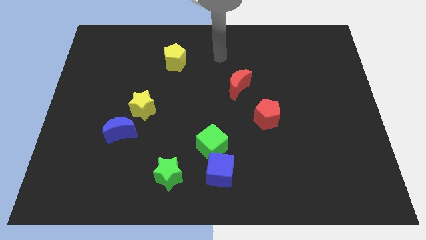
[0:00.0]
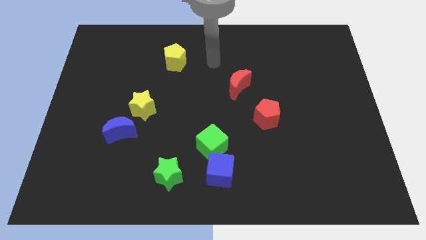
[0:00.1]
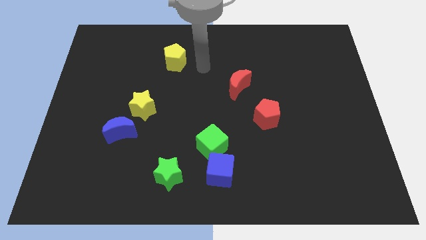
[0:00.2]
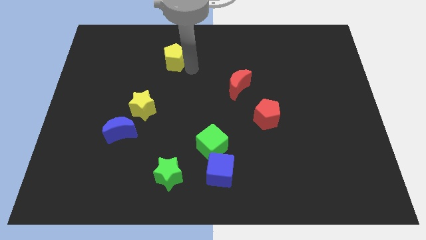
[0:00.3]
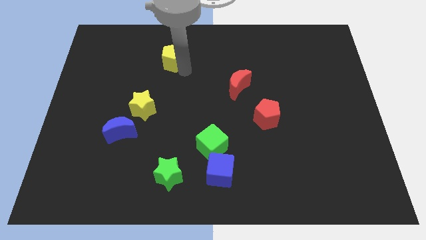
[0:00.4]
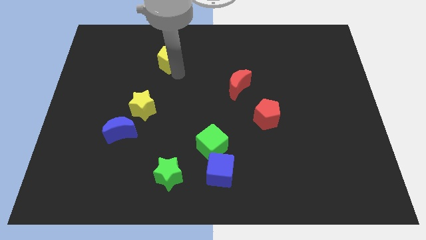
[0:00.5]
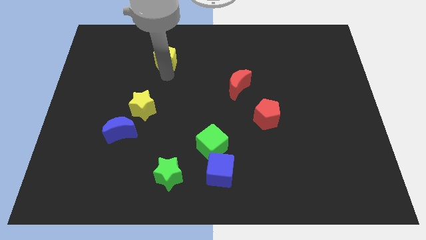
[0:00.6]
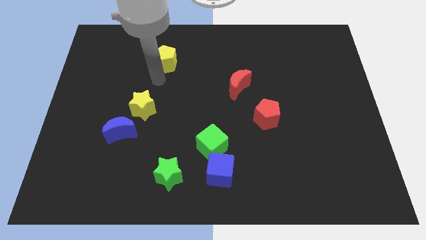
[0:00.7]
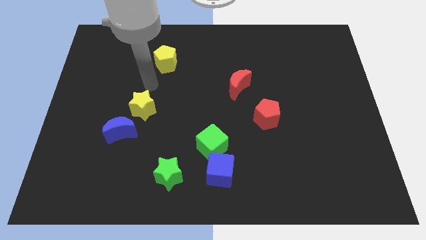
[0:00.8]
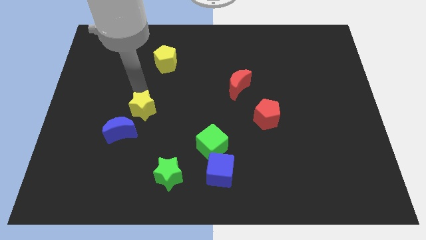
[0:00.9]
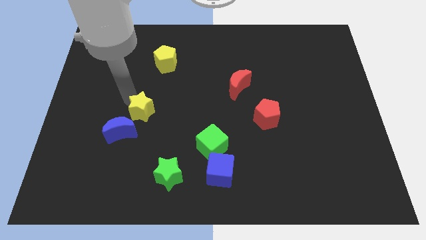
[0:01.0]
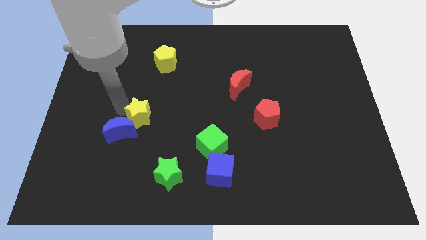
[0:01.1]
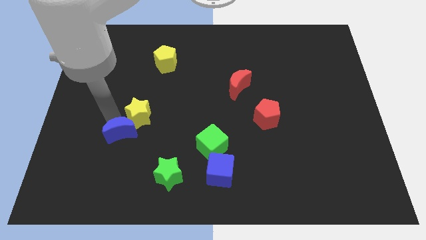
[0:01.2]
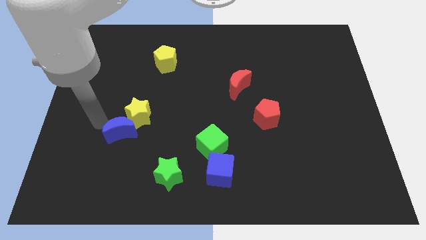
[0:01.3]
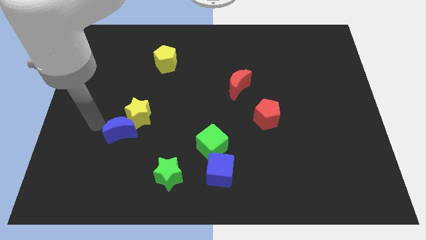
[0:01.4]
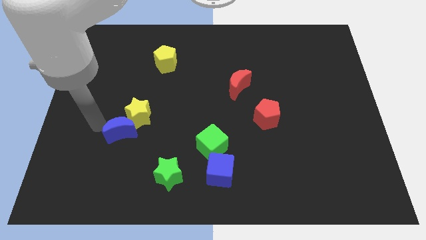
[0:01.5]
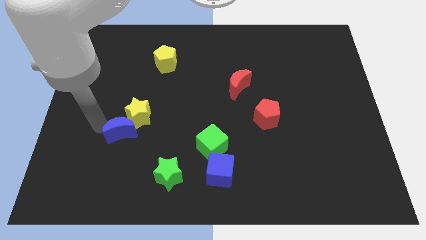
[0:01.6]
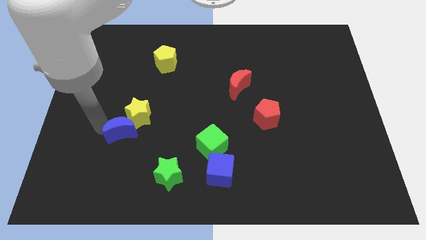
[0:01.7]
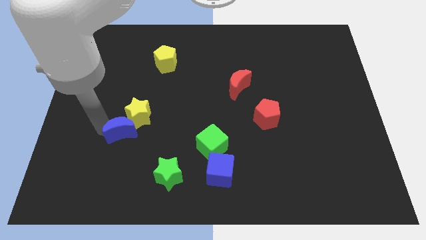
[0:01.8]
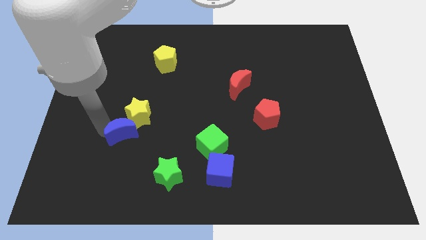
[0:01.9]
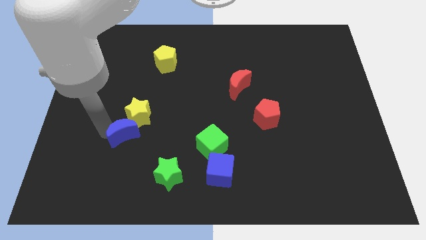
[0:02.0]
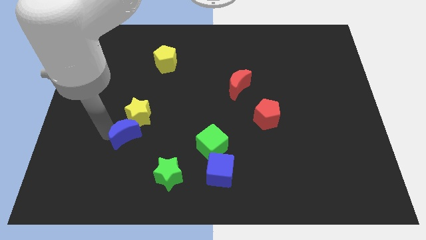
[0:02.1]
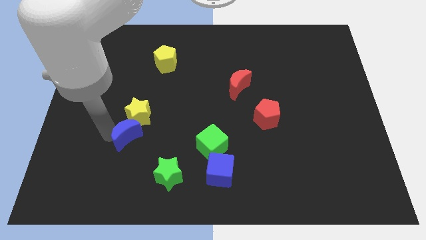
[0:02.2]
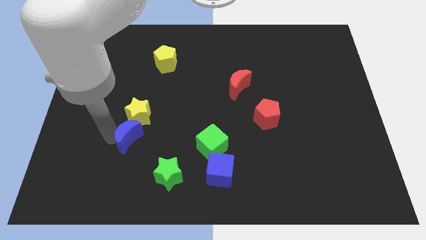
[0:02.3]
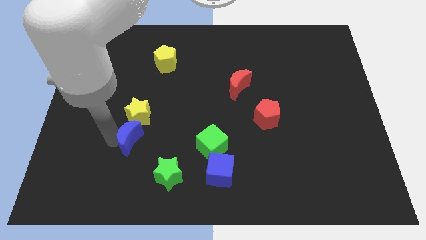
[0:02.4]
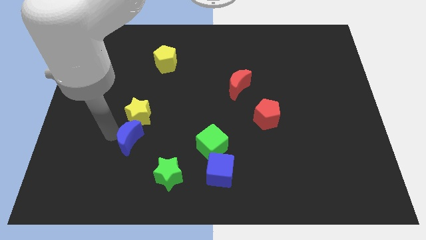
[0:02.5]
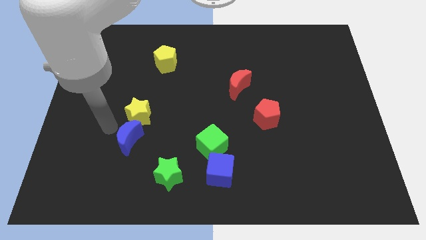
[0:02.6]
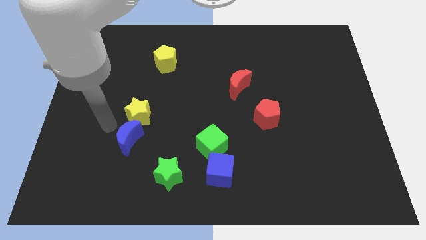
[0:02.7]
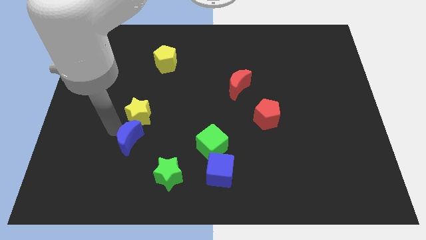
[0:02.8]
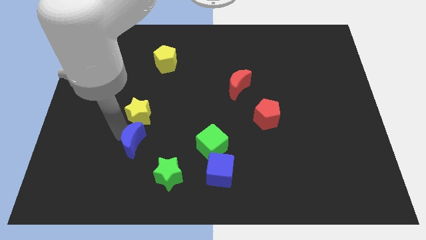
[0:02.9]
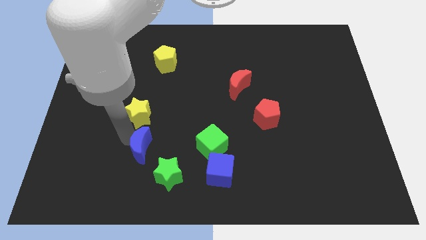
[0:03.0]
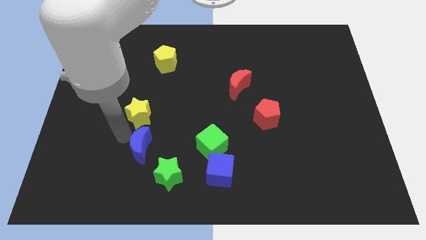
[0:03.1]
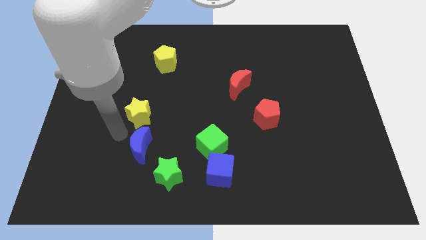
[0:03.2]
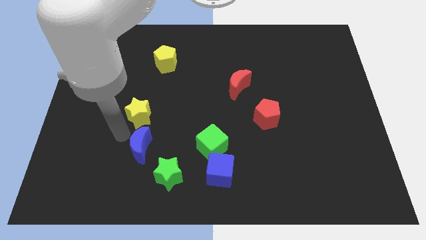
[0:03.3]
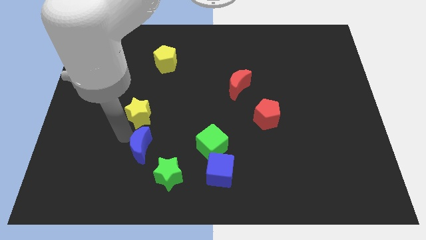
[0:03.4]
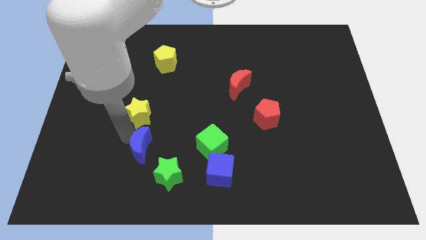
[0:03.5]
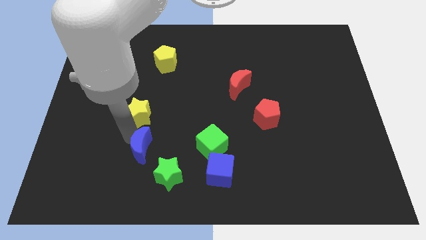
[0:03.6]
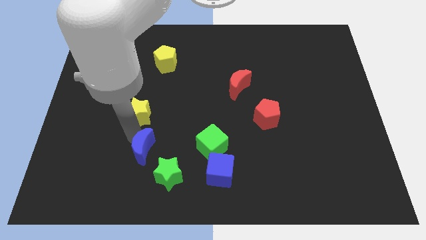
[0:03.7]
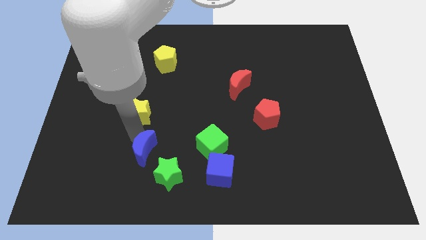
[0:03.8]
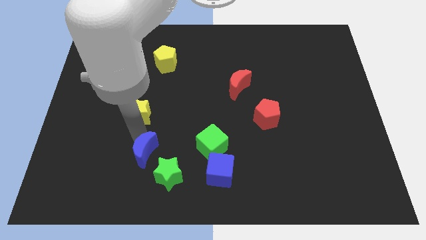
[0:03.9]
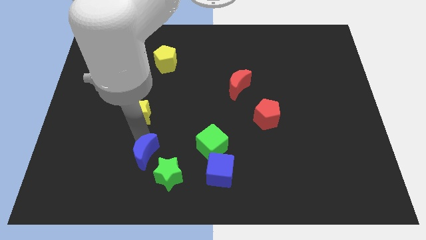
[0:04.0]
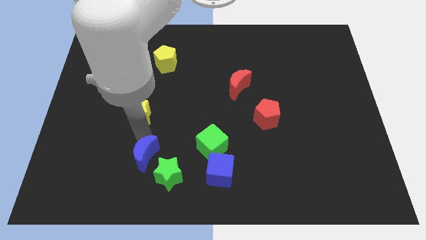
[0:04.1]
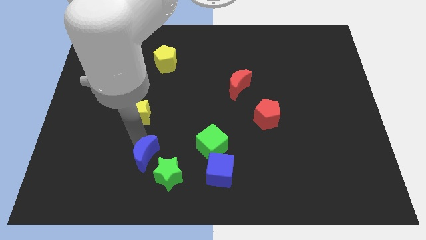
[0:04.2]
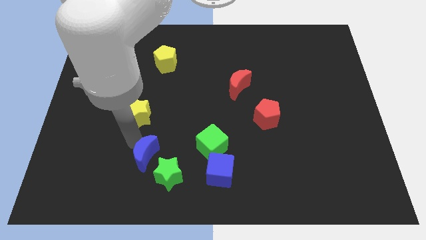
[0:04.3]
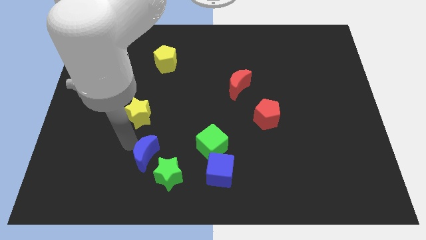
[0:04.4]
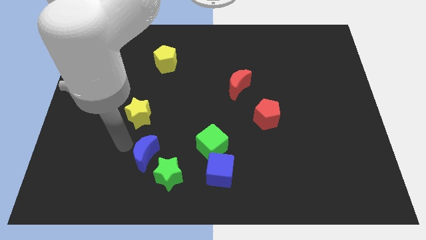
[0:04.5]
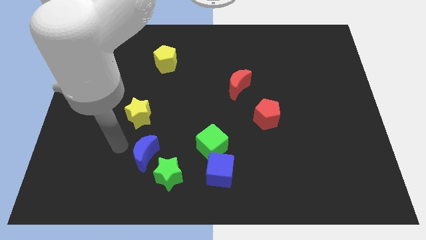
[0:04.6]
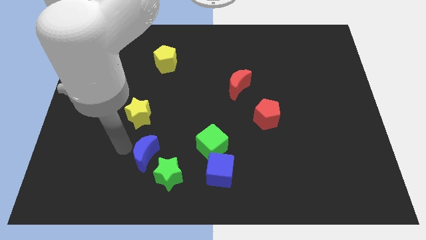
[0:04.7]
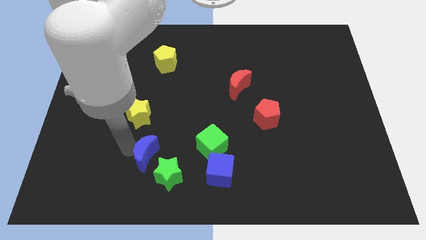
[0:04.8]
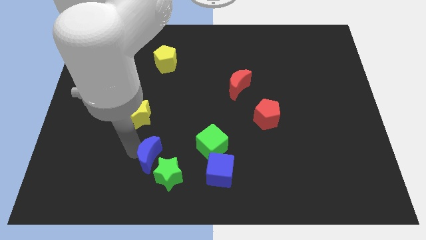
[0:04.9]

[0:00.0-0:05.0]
slide the blue moon to the green star

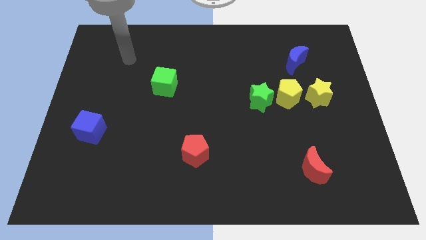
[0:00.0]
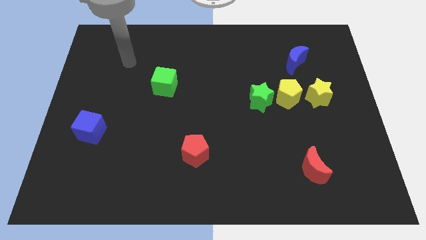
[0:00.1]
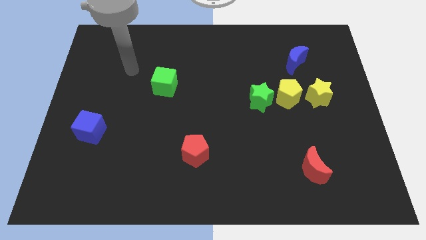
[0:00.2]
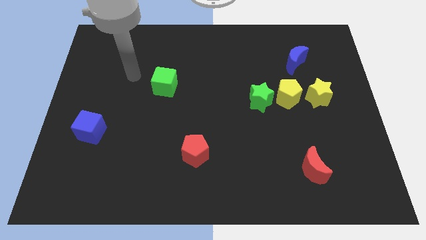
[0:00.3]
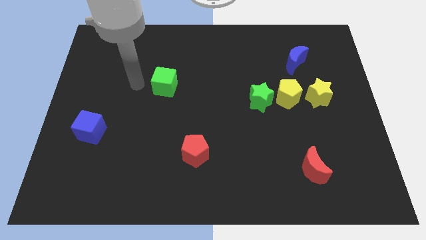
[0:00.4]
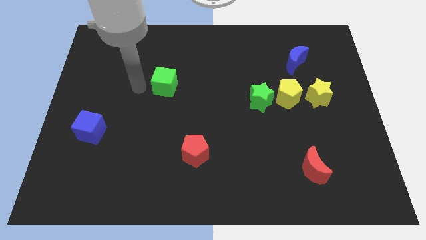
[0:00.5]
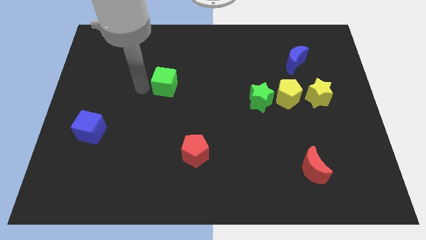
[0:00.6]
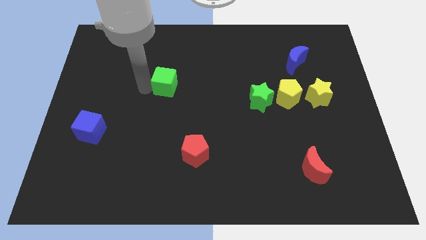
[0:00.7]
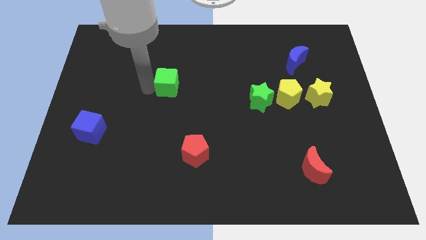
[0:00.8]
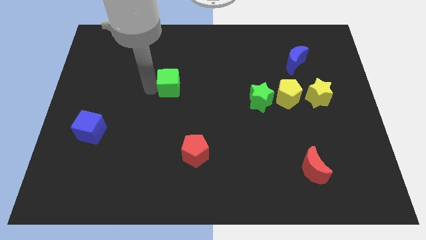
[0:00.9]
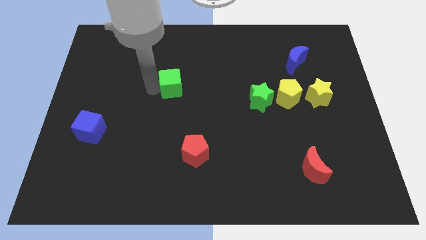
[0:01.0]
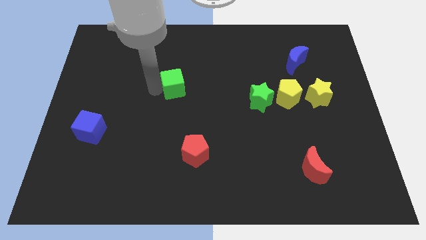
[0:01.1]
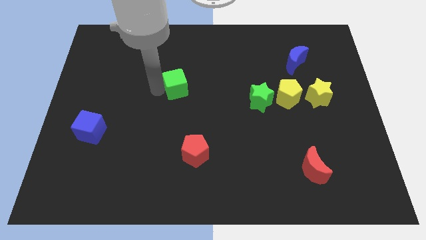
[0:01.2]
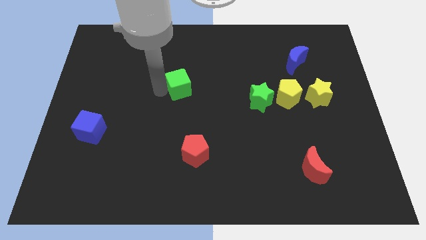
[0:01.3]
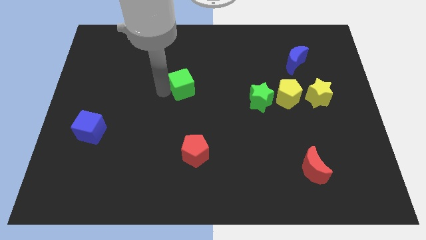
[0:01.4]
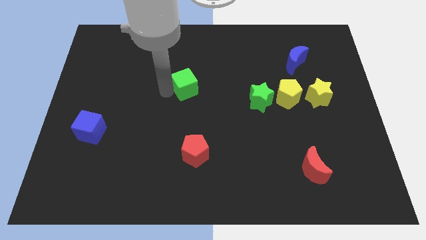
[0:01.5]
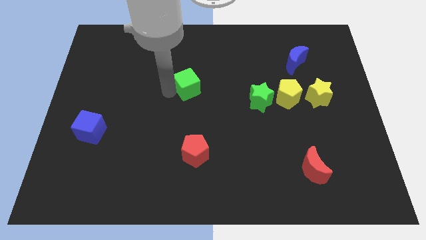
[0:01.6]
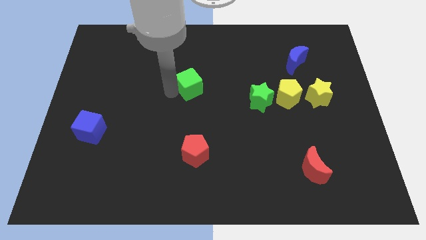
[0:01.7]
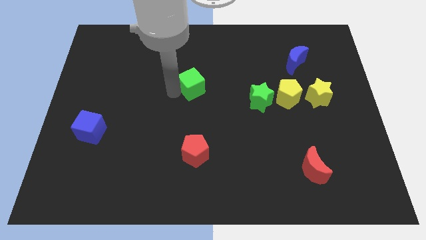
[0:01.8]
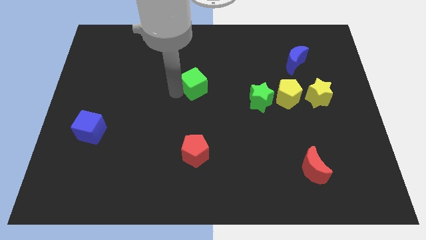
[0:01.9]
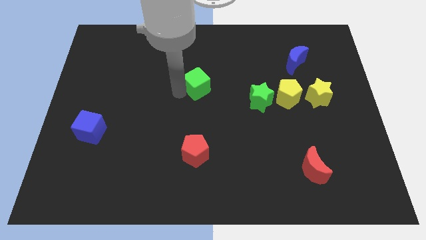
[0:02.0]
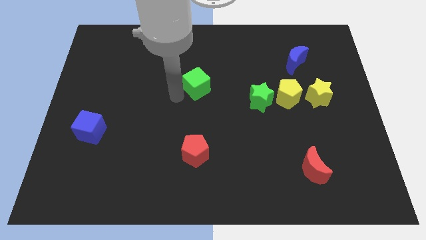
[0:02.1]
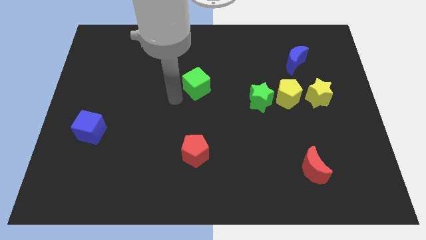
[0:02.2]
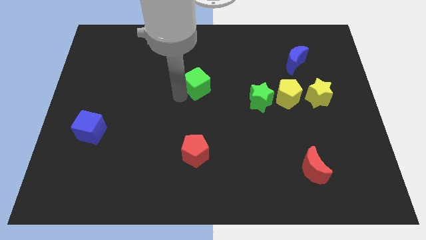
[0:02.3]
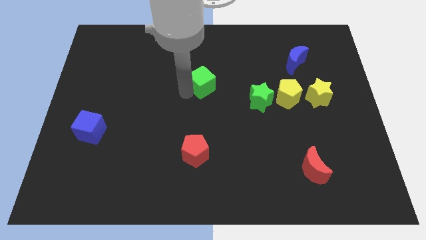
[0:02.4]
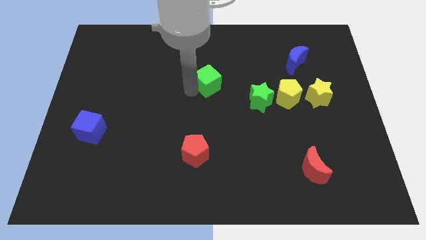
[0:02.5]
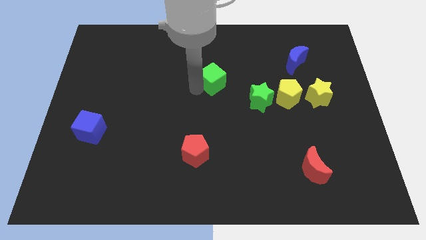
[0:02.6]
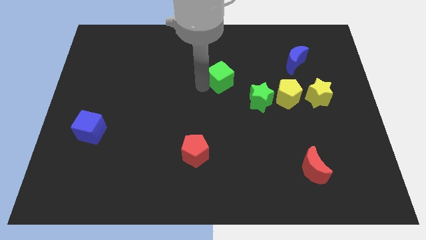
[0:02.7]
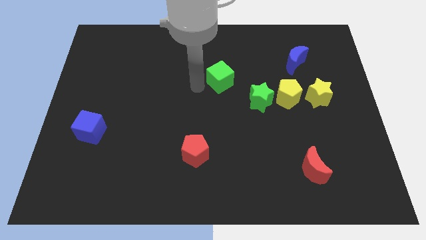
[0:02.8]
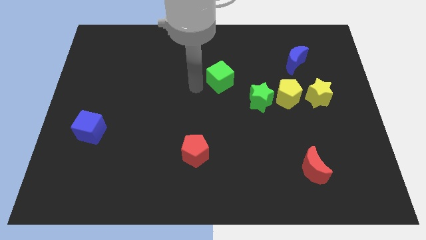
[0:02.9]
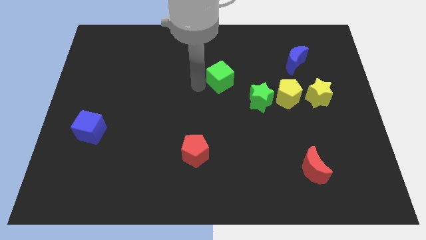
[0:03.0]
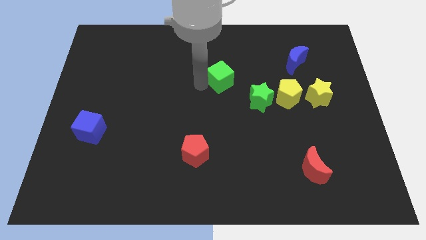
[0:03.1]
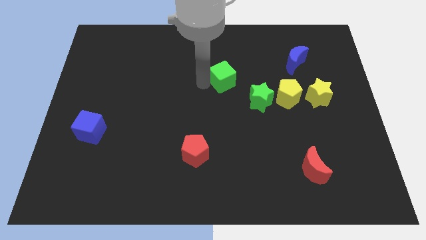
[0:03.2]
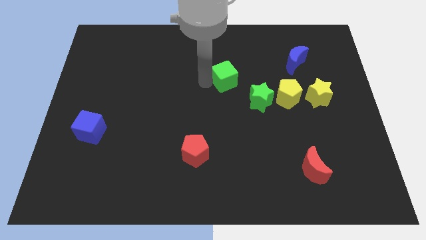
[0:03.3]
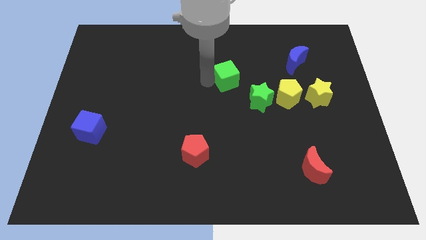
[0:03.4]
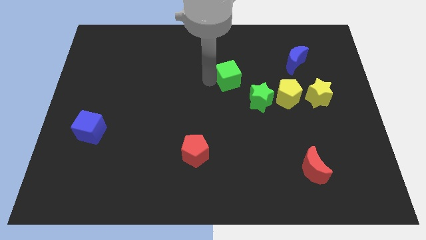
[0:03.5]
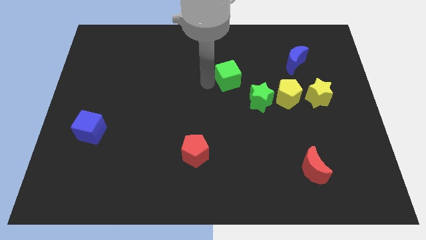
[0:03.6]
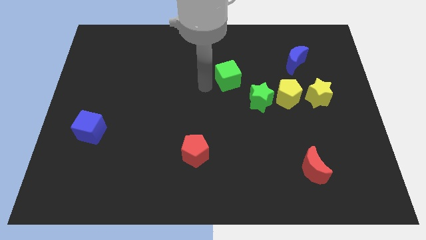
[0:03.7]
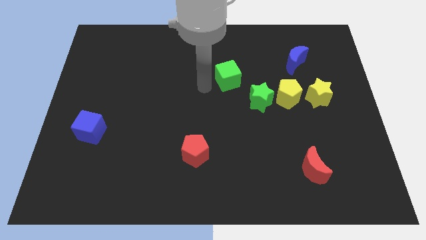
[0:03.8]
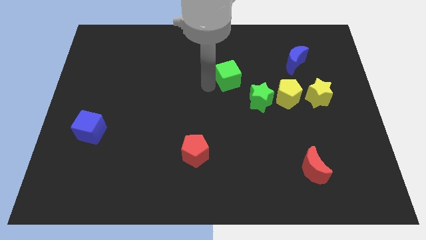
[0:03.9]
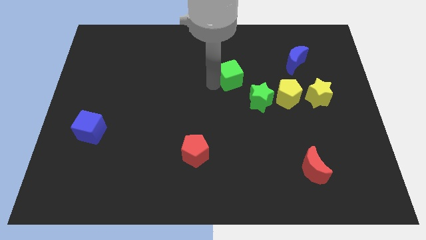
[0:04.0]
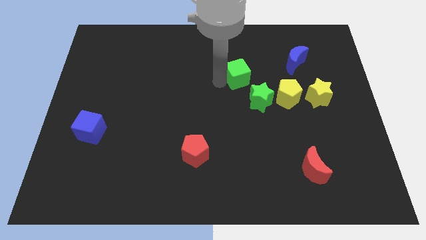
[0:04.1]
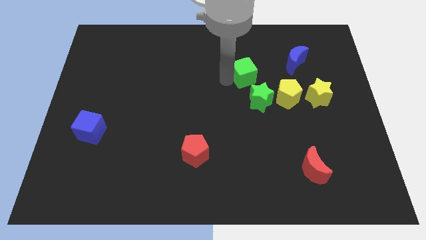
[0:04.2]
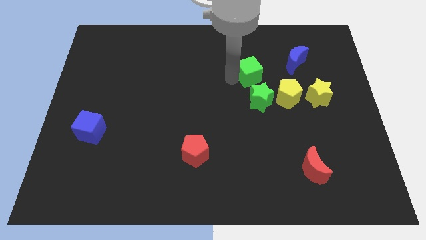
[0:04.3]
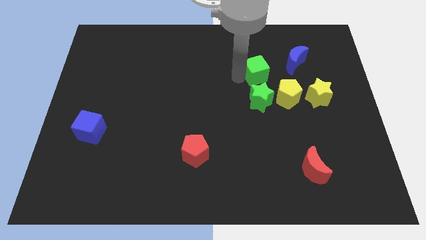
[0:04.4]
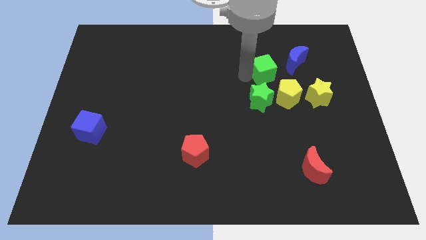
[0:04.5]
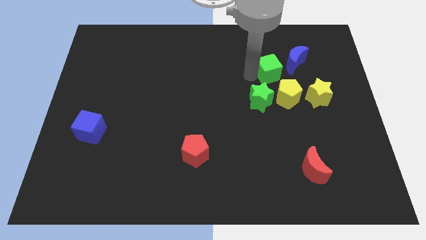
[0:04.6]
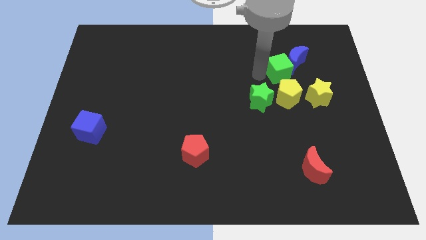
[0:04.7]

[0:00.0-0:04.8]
push the green cube close to the blue moon
